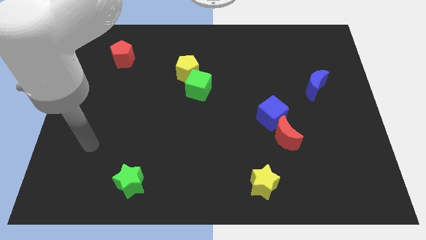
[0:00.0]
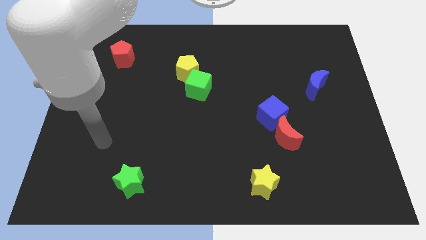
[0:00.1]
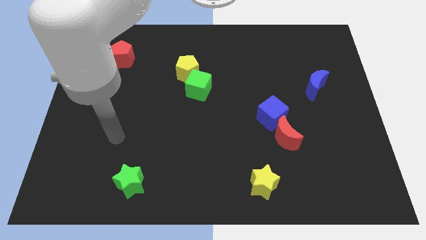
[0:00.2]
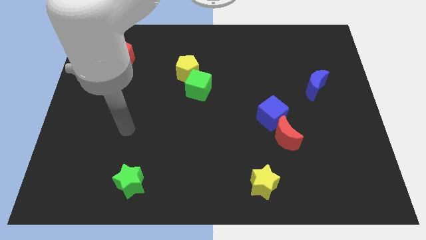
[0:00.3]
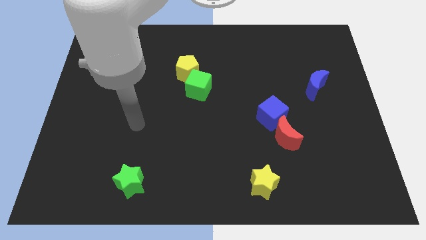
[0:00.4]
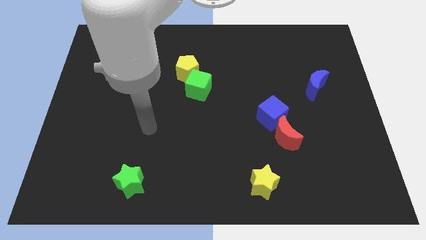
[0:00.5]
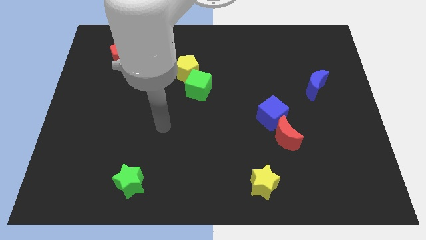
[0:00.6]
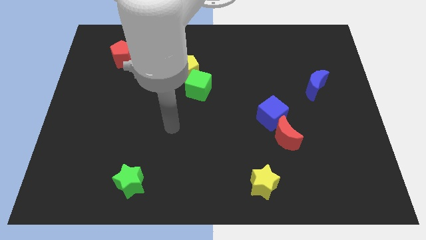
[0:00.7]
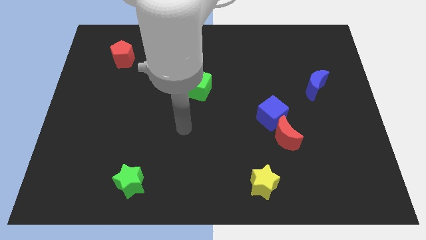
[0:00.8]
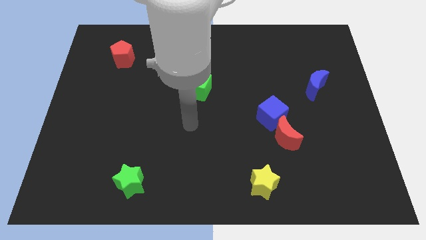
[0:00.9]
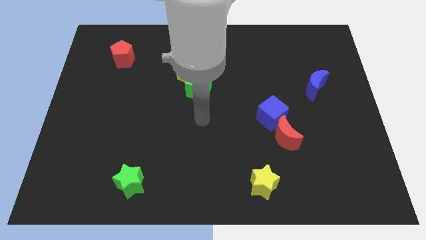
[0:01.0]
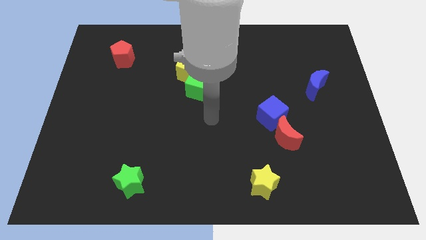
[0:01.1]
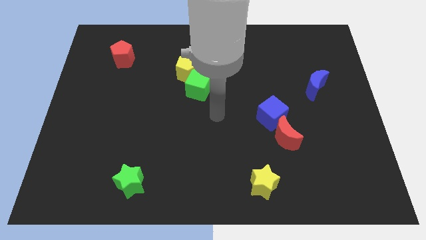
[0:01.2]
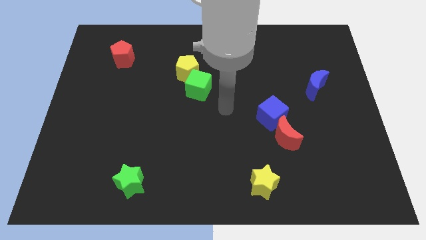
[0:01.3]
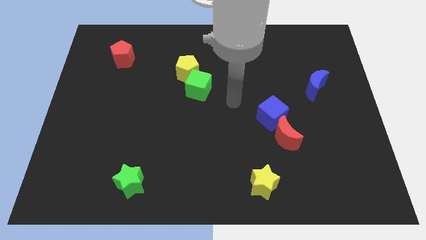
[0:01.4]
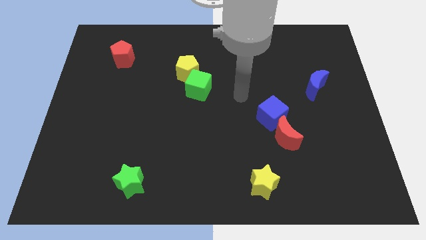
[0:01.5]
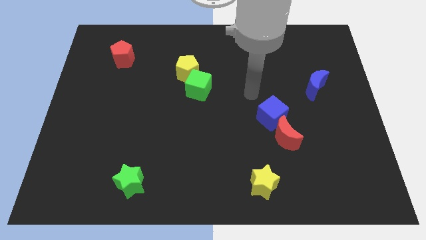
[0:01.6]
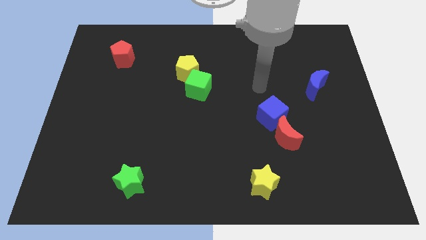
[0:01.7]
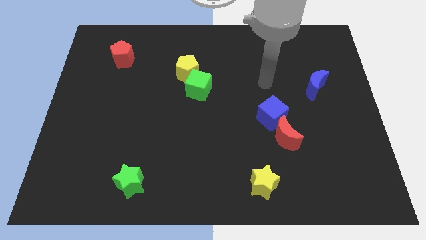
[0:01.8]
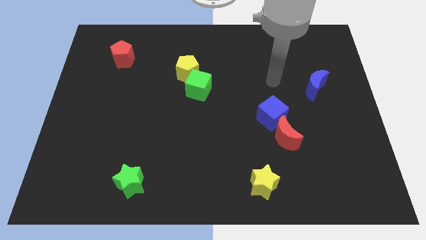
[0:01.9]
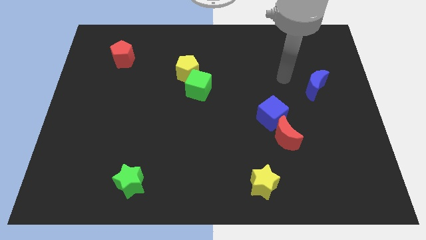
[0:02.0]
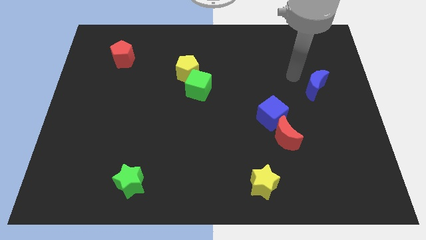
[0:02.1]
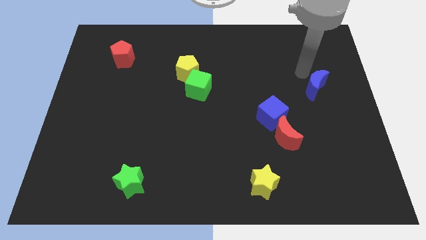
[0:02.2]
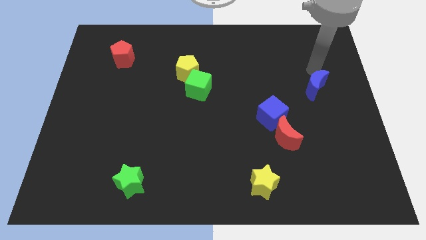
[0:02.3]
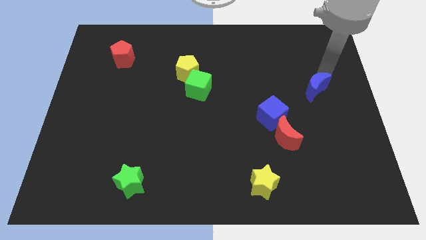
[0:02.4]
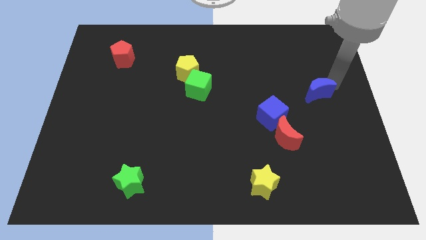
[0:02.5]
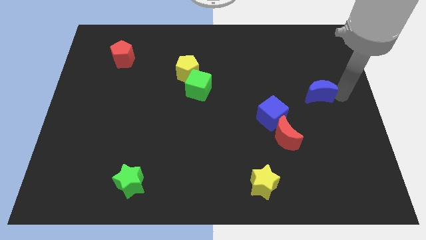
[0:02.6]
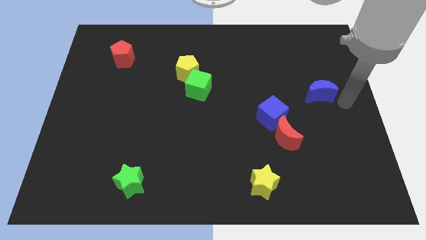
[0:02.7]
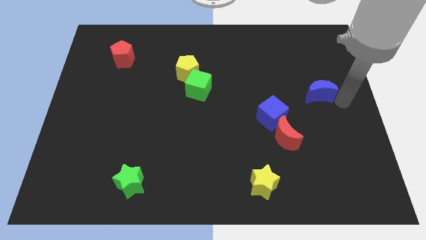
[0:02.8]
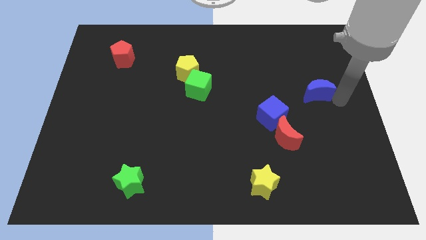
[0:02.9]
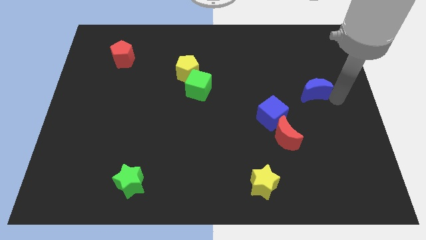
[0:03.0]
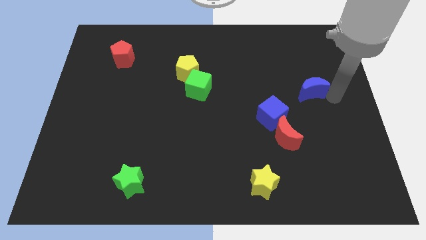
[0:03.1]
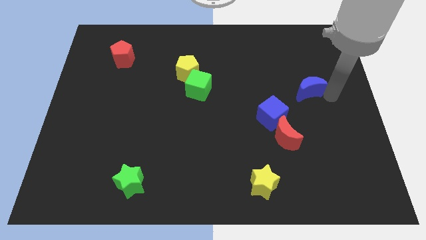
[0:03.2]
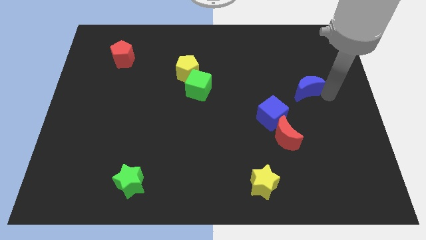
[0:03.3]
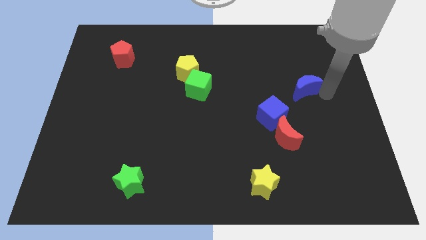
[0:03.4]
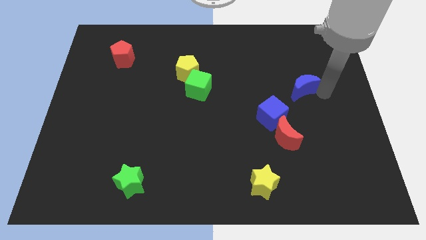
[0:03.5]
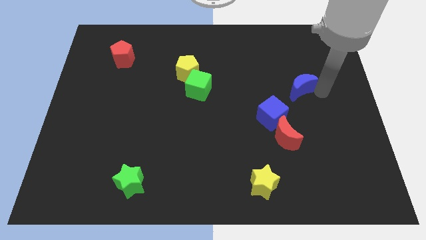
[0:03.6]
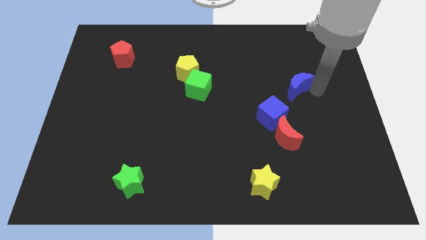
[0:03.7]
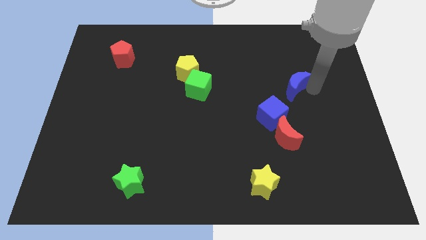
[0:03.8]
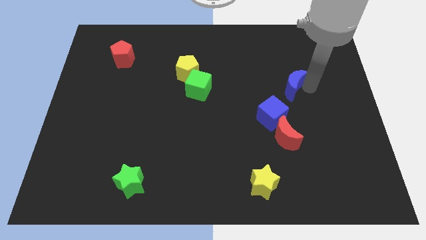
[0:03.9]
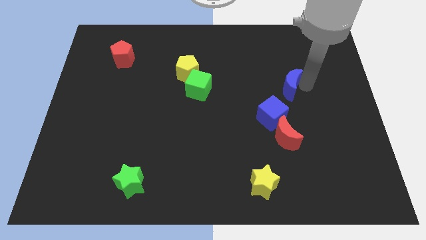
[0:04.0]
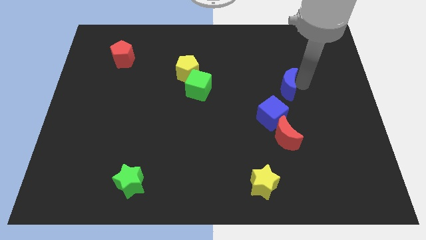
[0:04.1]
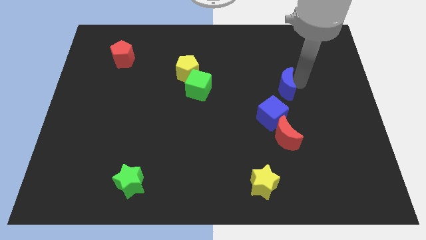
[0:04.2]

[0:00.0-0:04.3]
slightly slide the blue moon to the left

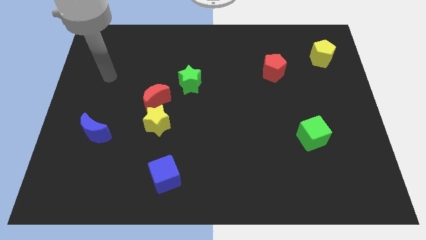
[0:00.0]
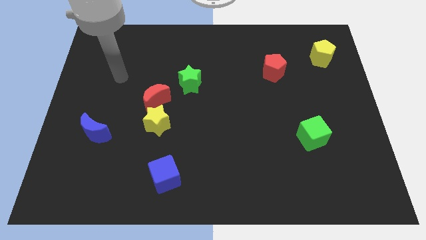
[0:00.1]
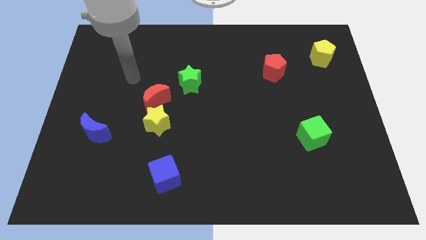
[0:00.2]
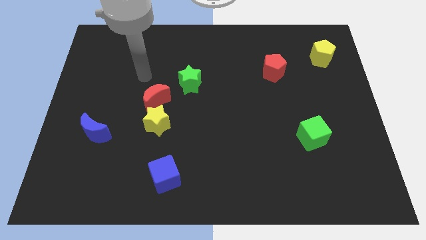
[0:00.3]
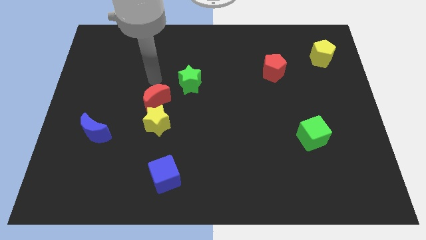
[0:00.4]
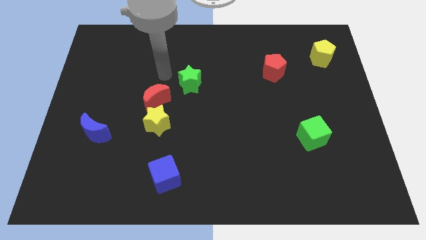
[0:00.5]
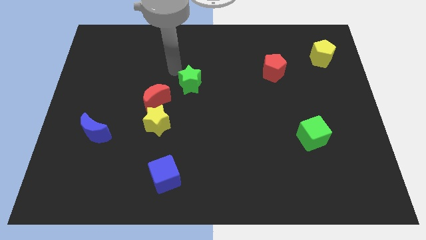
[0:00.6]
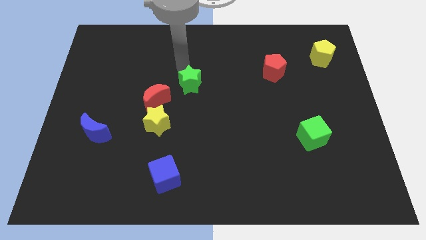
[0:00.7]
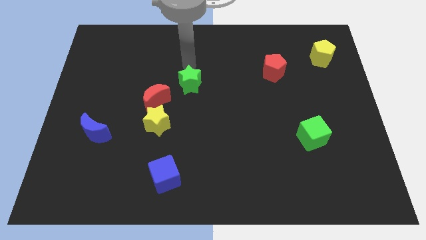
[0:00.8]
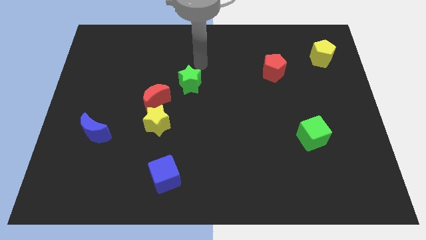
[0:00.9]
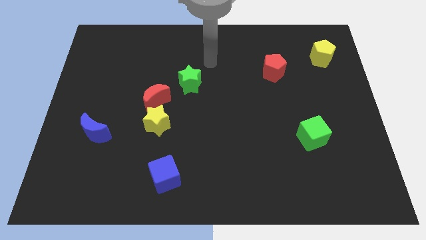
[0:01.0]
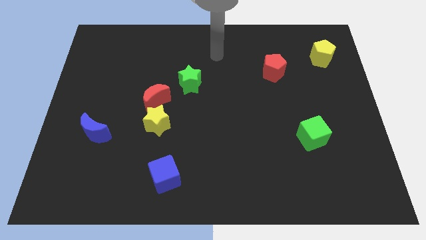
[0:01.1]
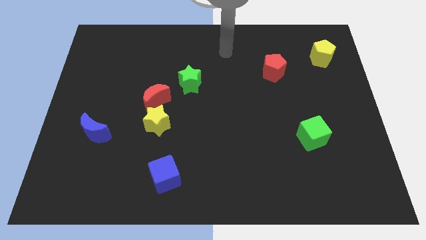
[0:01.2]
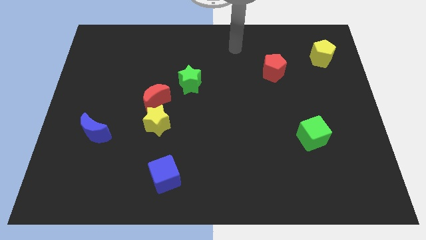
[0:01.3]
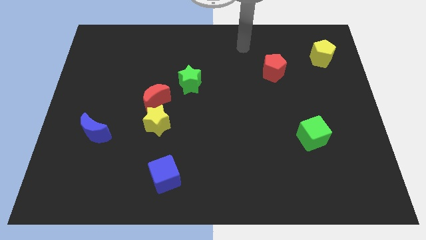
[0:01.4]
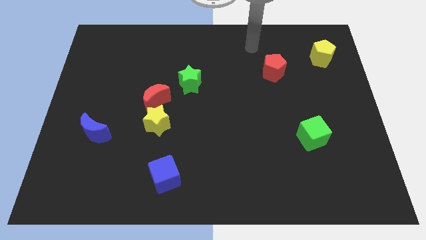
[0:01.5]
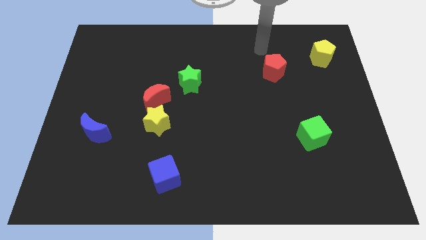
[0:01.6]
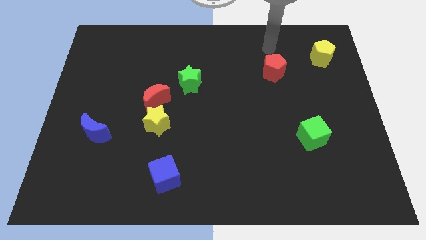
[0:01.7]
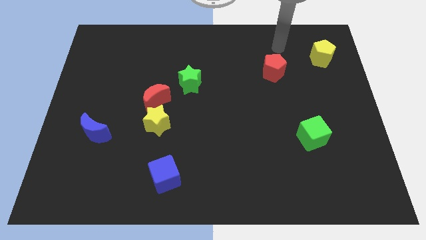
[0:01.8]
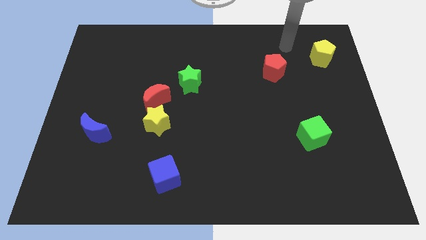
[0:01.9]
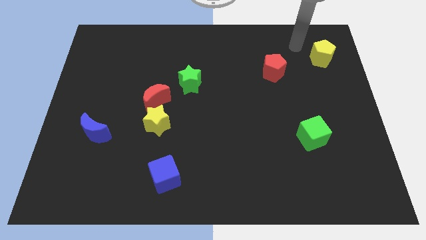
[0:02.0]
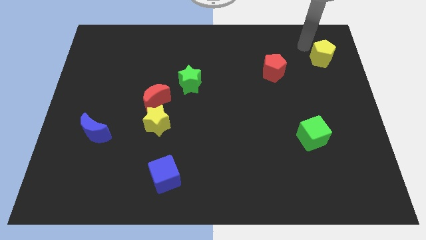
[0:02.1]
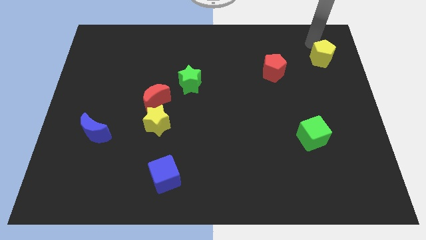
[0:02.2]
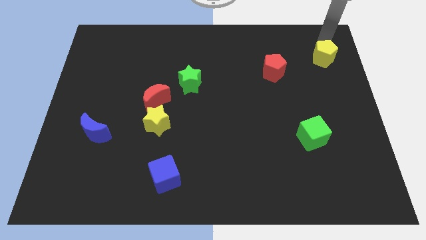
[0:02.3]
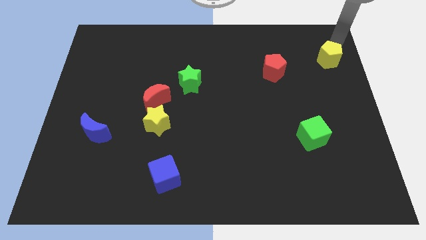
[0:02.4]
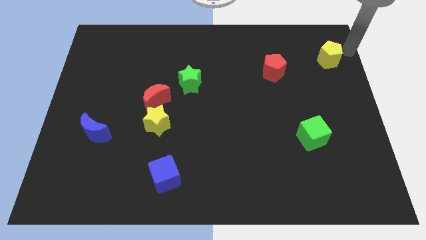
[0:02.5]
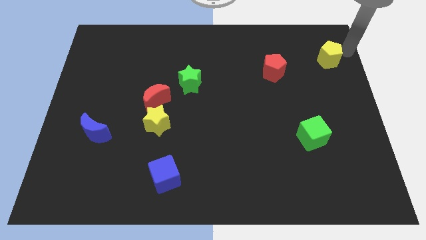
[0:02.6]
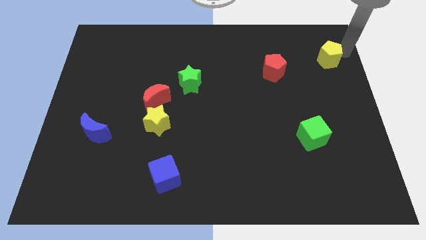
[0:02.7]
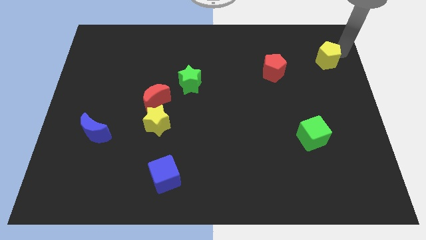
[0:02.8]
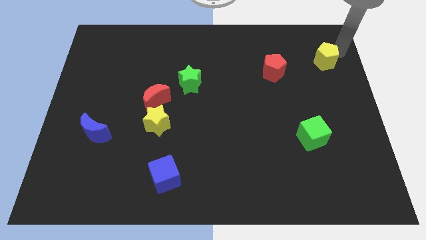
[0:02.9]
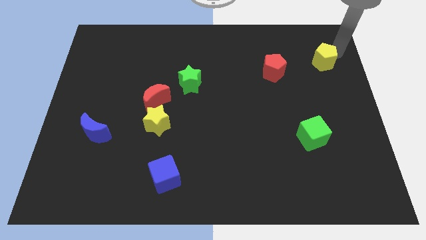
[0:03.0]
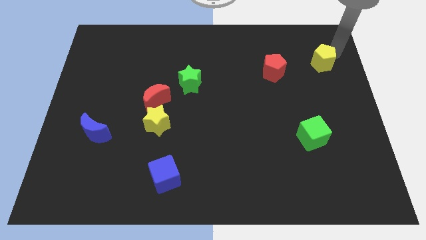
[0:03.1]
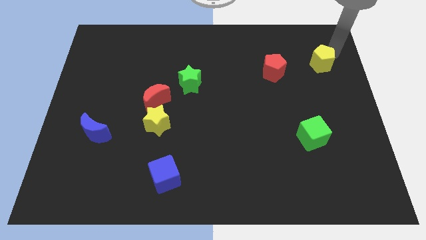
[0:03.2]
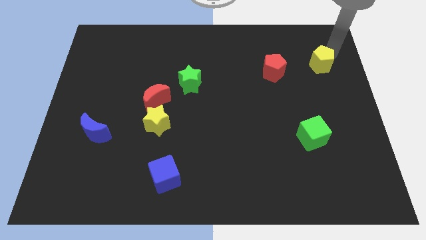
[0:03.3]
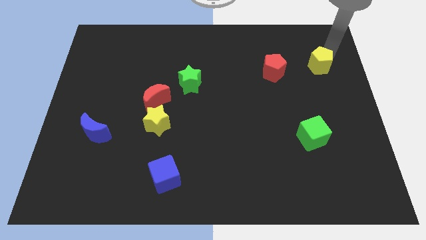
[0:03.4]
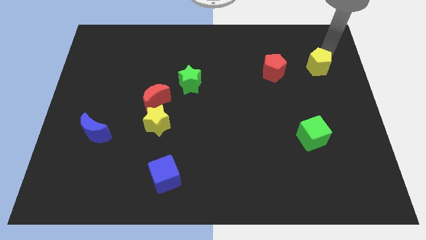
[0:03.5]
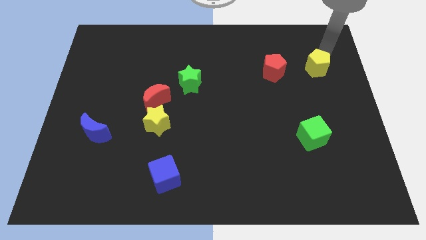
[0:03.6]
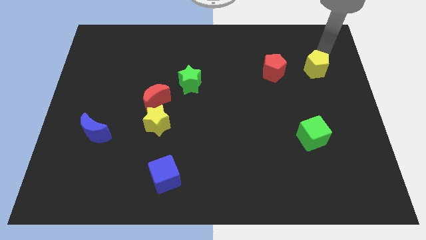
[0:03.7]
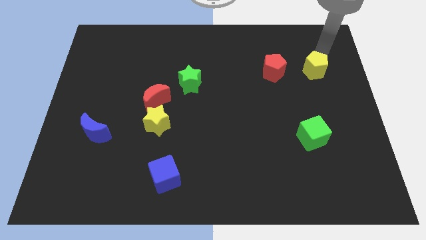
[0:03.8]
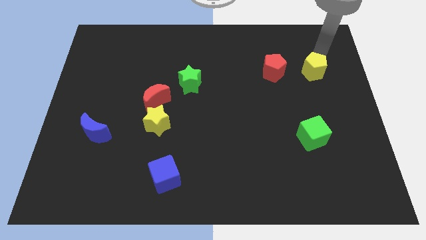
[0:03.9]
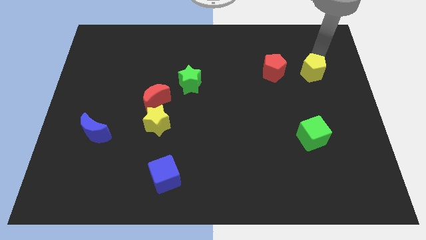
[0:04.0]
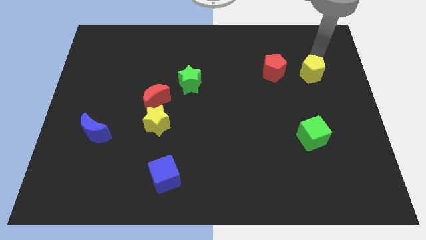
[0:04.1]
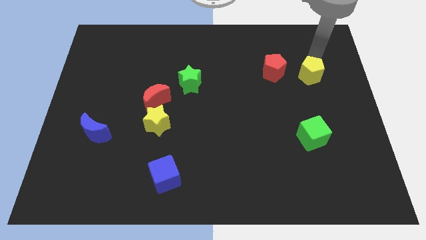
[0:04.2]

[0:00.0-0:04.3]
move the yellow pentagon down and left a little bit
